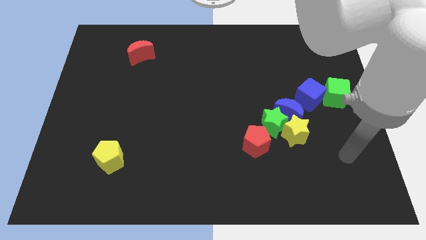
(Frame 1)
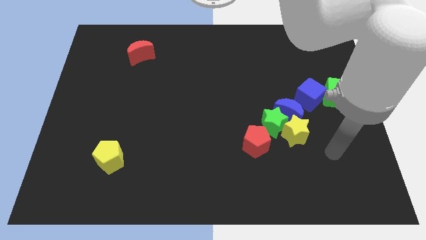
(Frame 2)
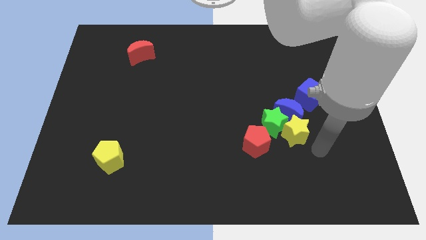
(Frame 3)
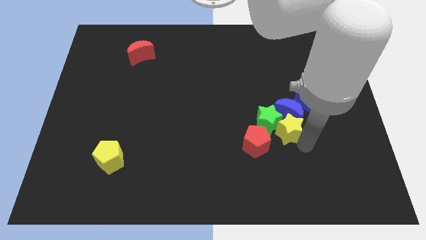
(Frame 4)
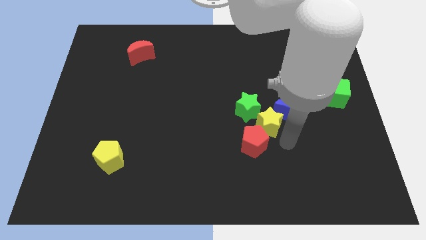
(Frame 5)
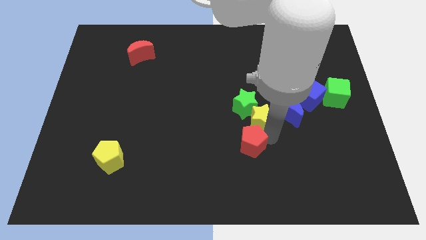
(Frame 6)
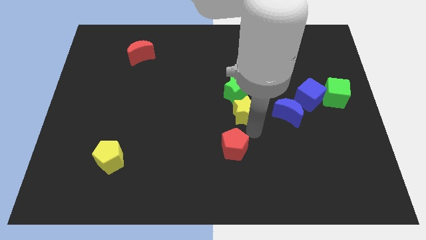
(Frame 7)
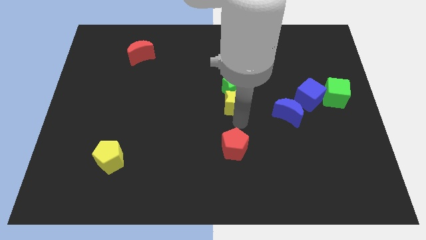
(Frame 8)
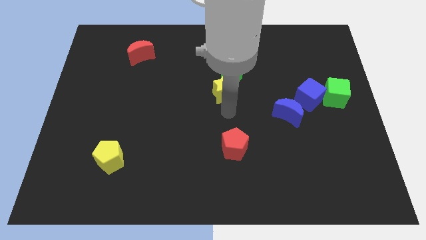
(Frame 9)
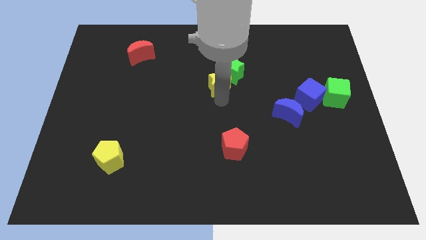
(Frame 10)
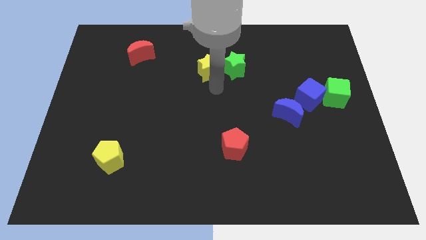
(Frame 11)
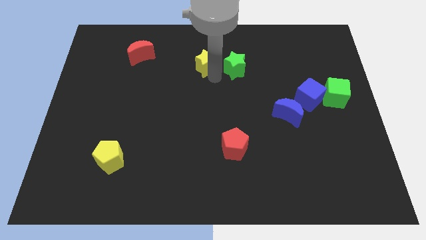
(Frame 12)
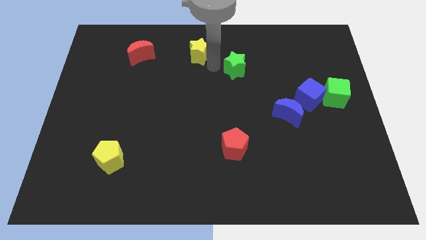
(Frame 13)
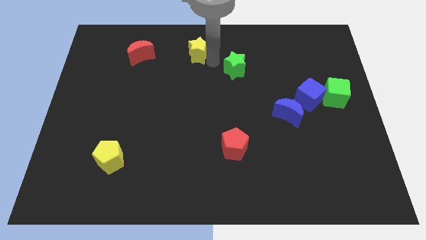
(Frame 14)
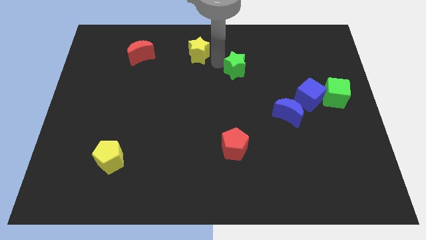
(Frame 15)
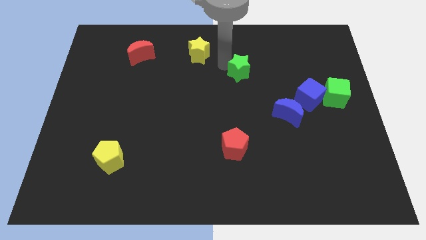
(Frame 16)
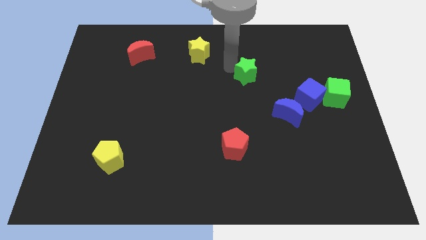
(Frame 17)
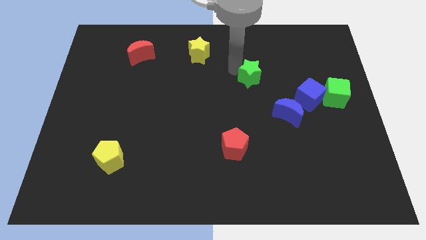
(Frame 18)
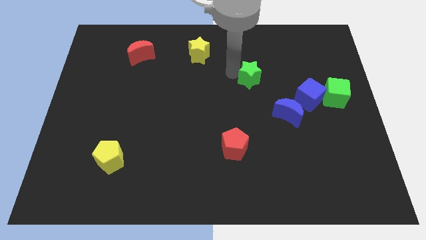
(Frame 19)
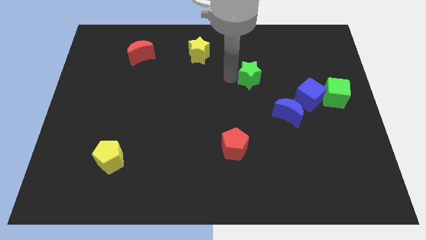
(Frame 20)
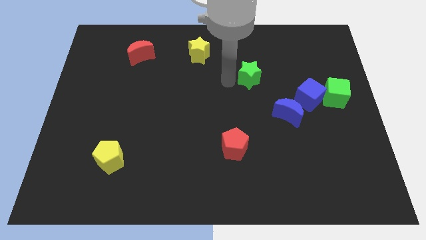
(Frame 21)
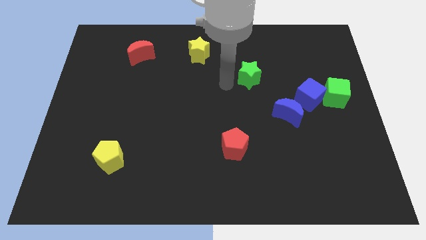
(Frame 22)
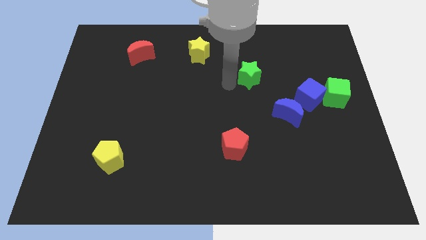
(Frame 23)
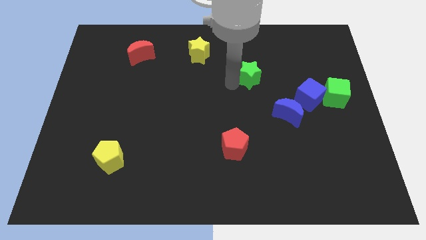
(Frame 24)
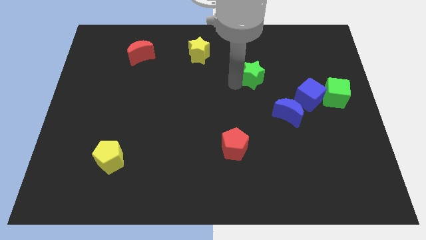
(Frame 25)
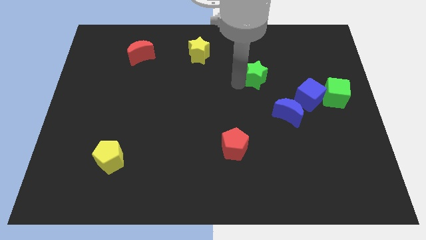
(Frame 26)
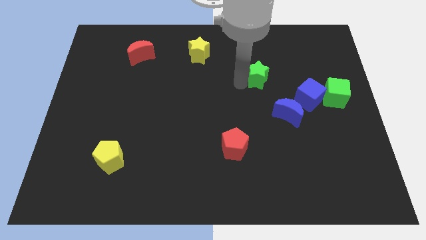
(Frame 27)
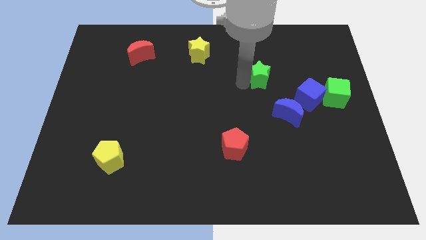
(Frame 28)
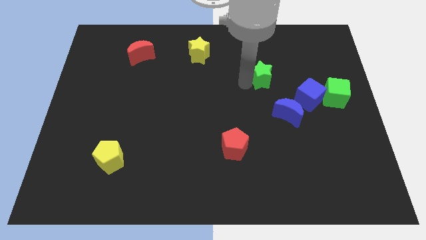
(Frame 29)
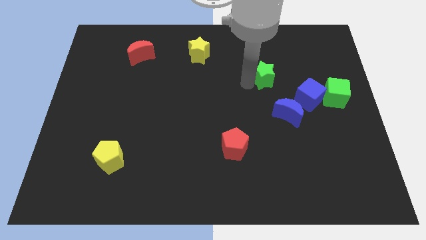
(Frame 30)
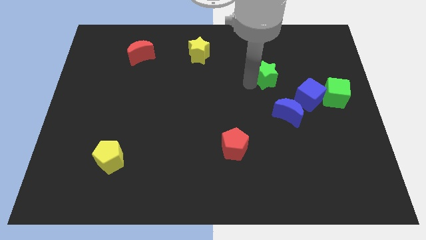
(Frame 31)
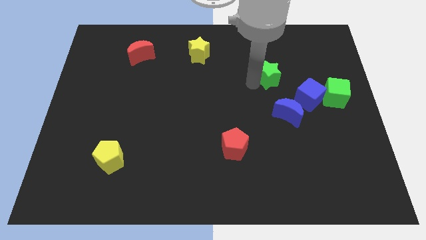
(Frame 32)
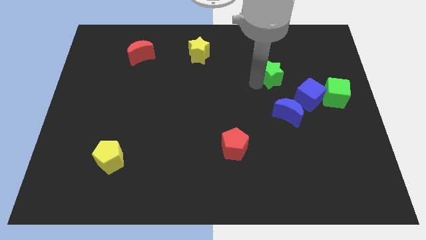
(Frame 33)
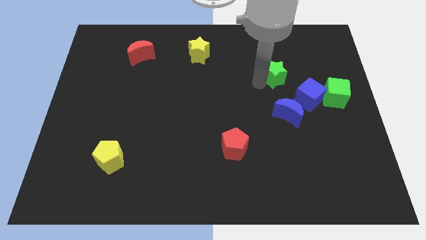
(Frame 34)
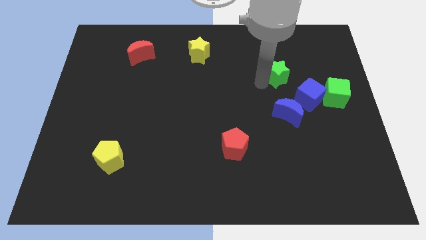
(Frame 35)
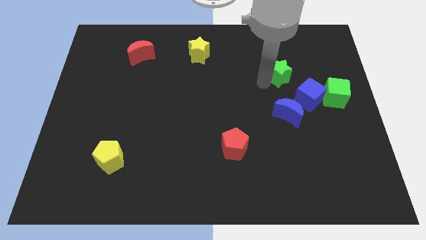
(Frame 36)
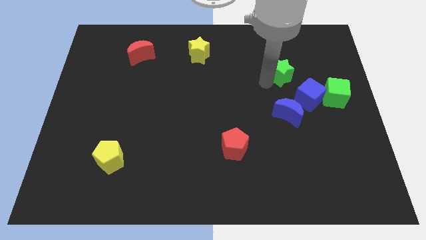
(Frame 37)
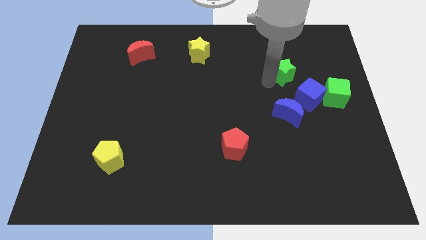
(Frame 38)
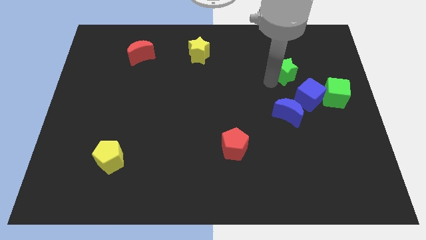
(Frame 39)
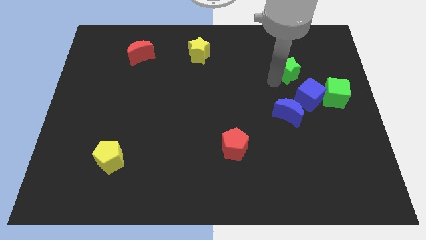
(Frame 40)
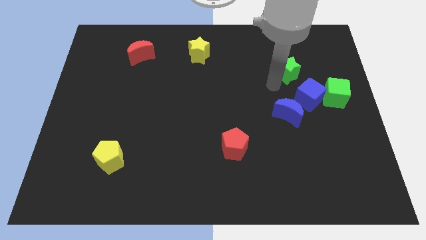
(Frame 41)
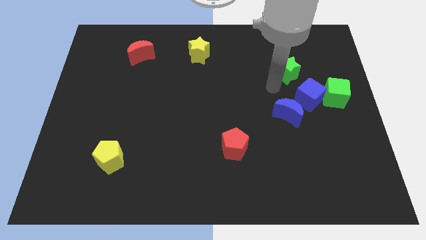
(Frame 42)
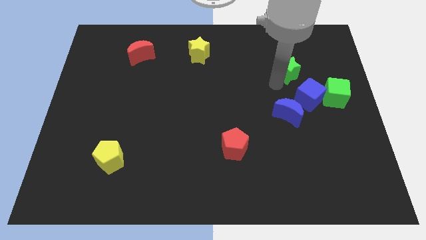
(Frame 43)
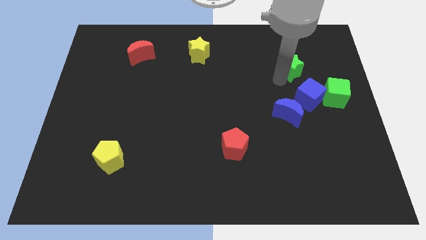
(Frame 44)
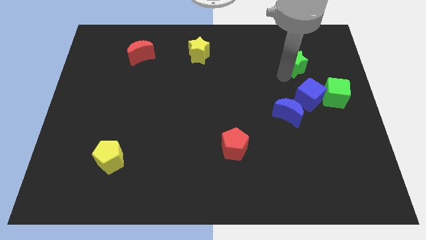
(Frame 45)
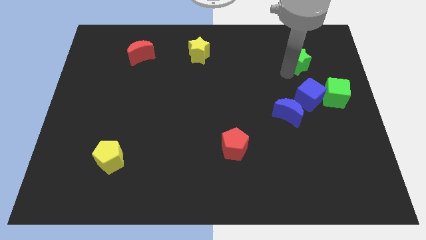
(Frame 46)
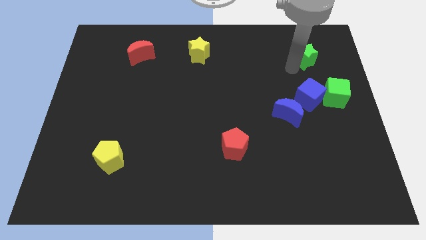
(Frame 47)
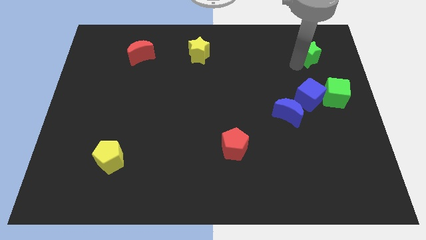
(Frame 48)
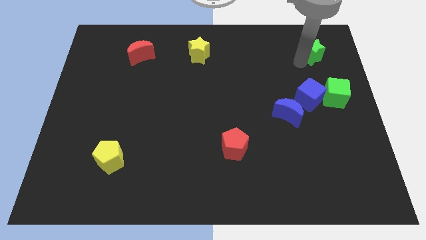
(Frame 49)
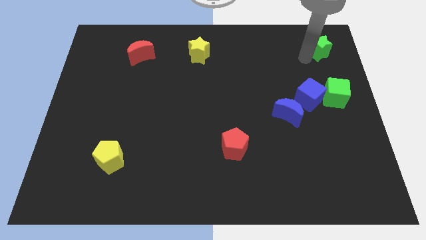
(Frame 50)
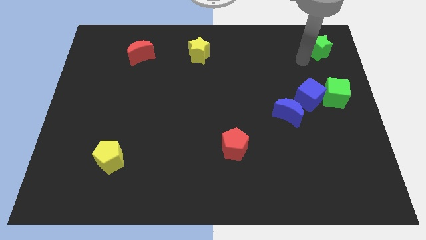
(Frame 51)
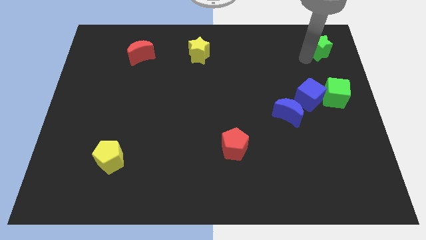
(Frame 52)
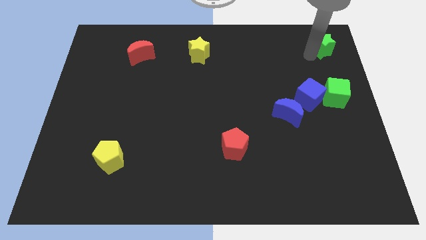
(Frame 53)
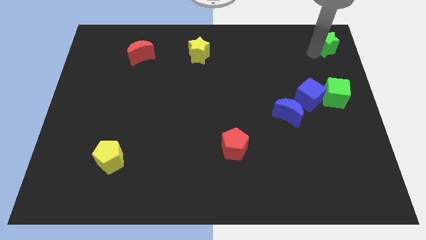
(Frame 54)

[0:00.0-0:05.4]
put the green star to the top right

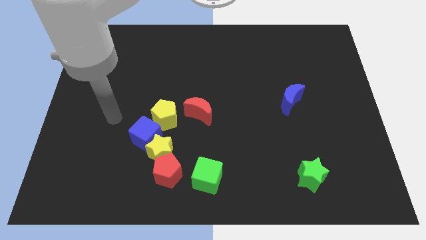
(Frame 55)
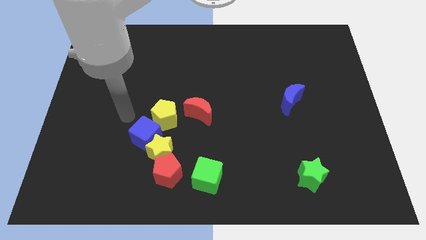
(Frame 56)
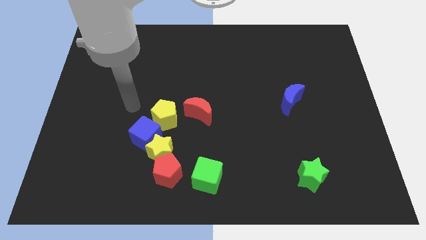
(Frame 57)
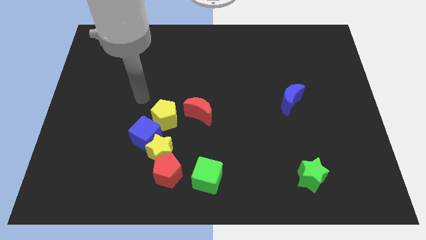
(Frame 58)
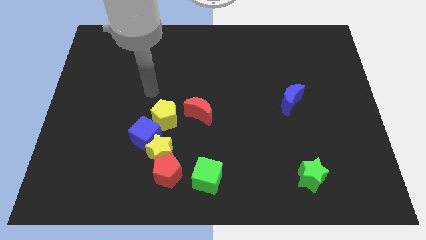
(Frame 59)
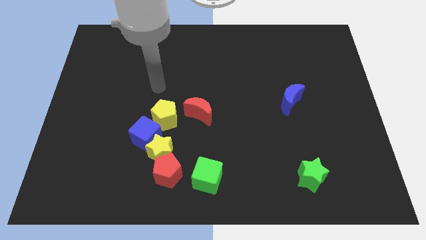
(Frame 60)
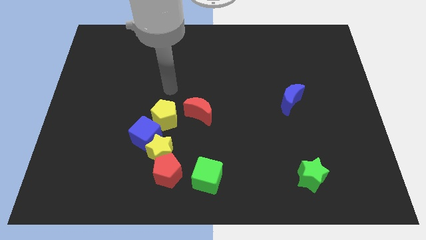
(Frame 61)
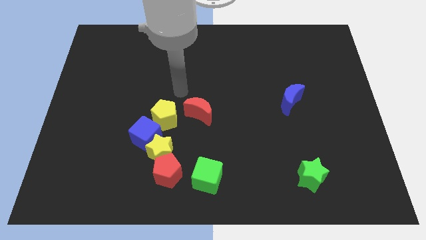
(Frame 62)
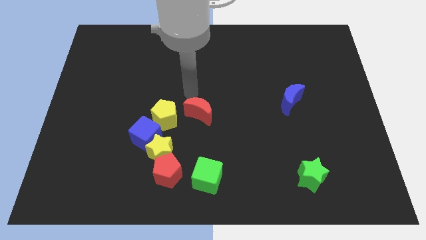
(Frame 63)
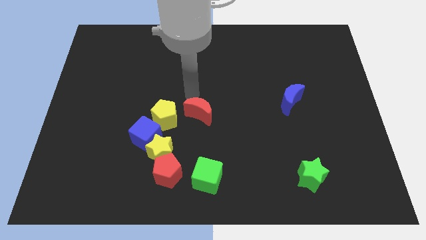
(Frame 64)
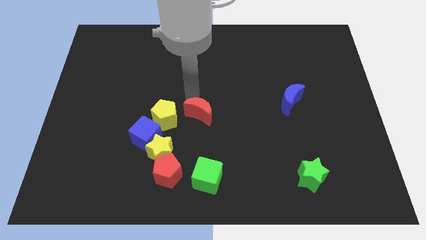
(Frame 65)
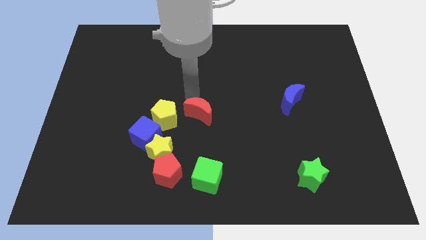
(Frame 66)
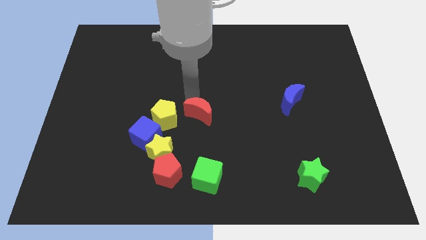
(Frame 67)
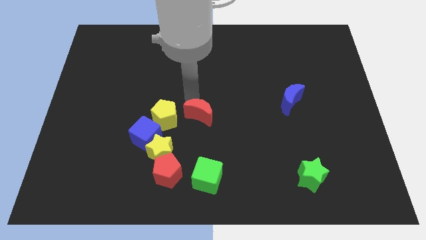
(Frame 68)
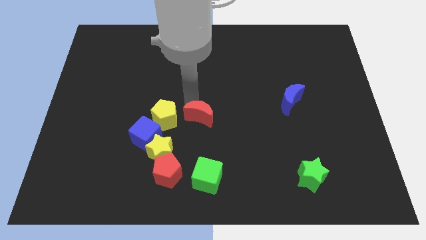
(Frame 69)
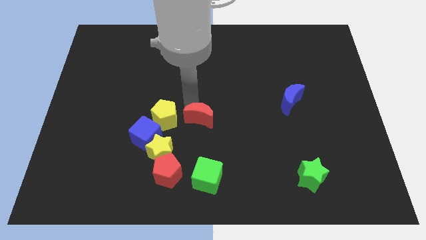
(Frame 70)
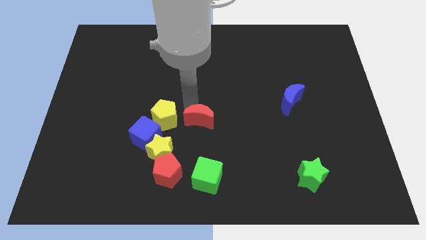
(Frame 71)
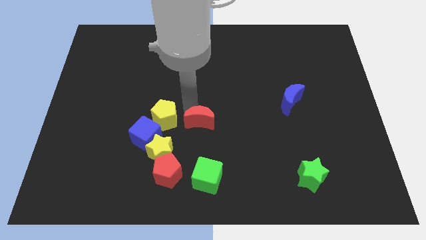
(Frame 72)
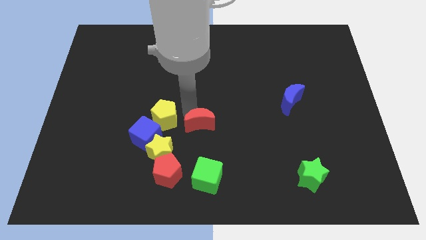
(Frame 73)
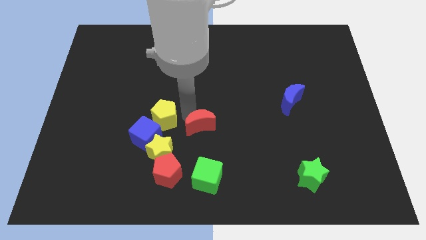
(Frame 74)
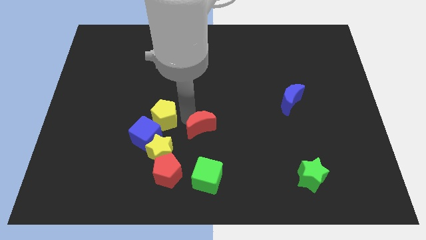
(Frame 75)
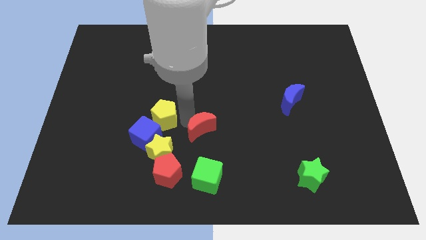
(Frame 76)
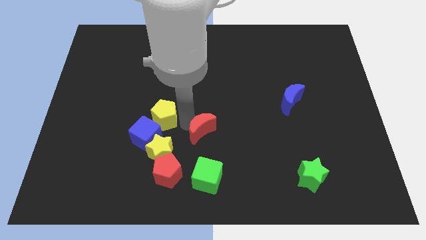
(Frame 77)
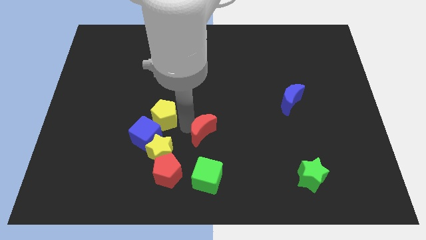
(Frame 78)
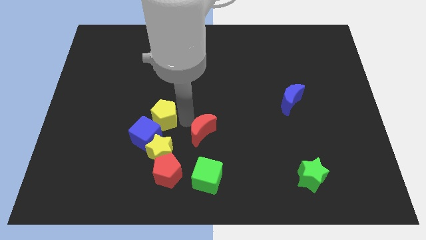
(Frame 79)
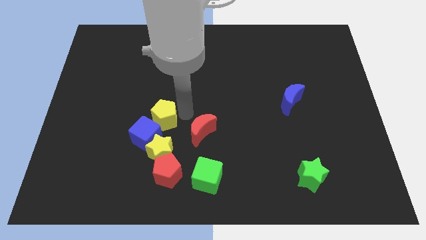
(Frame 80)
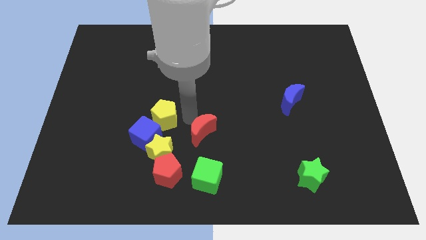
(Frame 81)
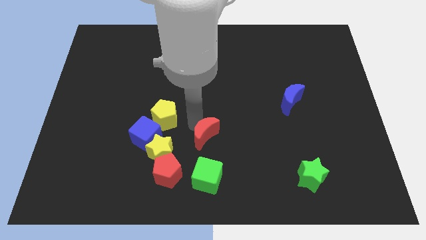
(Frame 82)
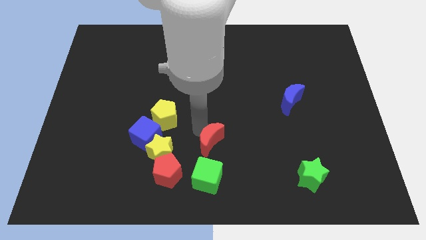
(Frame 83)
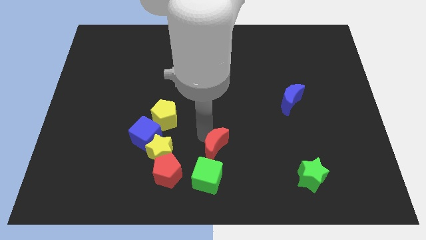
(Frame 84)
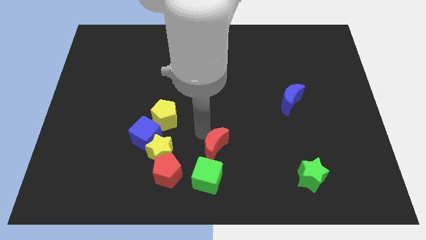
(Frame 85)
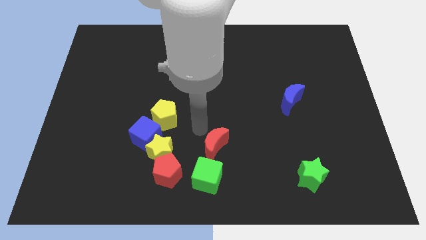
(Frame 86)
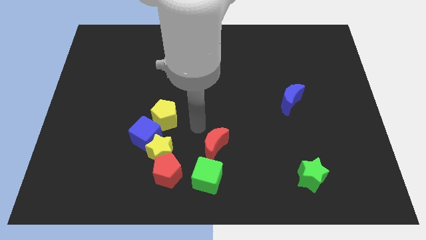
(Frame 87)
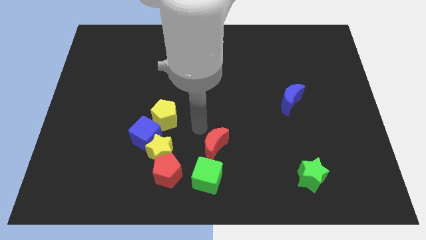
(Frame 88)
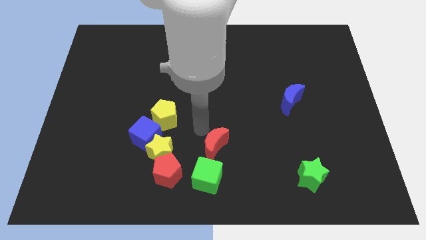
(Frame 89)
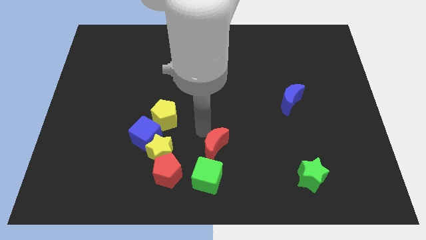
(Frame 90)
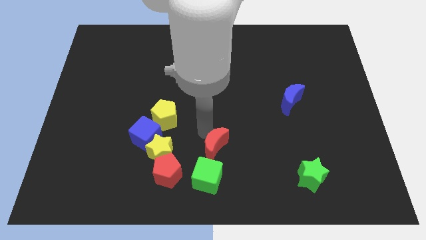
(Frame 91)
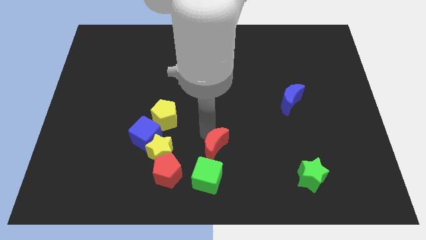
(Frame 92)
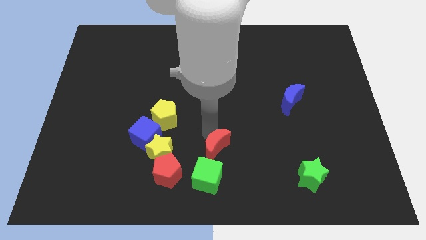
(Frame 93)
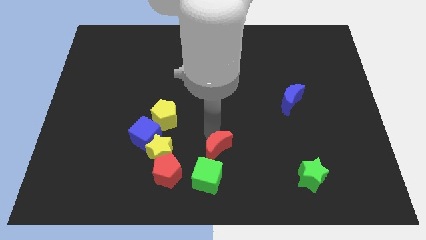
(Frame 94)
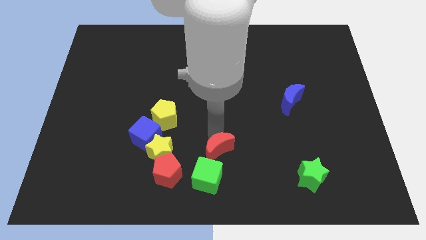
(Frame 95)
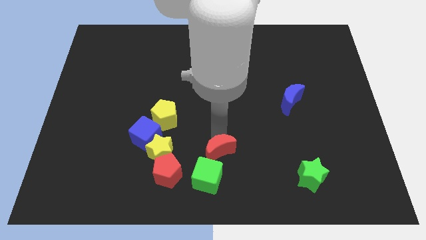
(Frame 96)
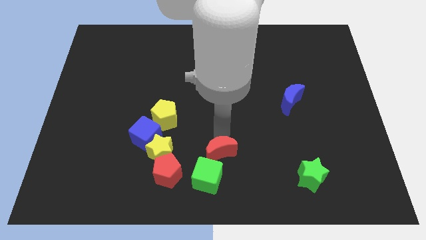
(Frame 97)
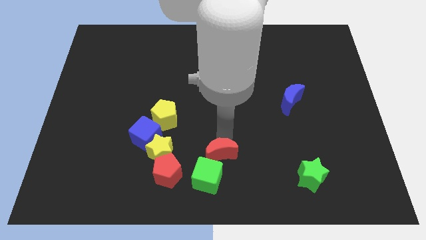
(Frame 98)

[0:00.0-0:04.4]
put the red moon to the bottom side
